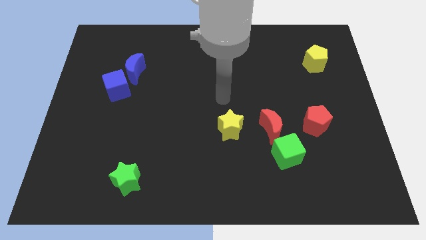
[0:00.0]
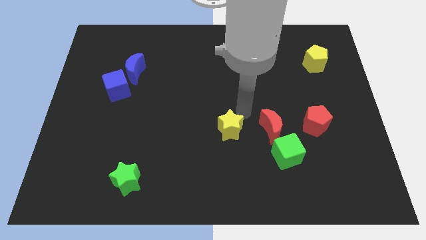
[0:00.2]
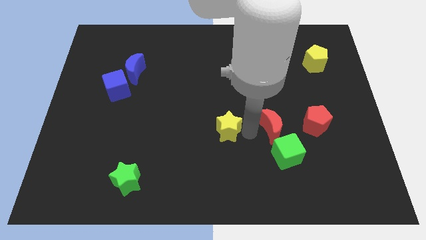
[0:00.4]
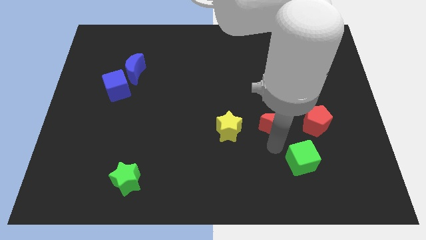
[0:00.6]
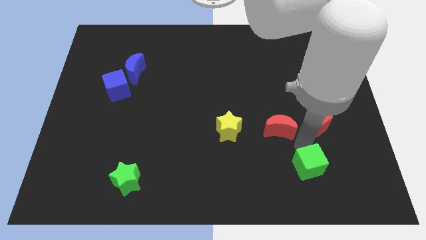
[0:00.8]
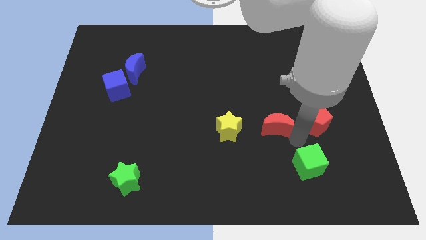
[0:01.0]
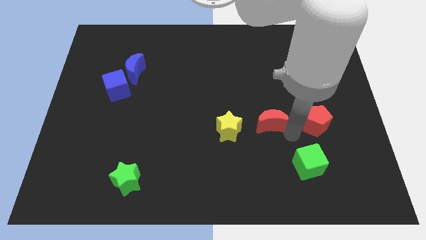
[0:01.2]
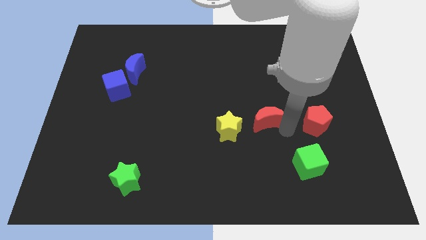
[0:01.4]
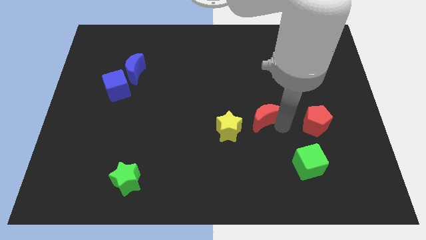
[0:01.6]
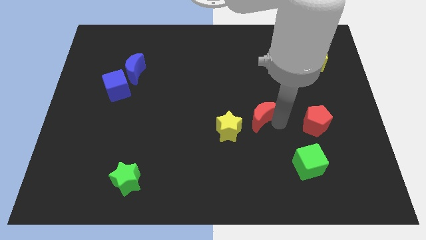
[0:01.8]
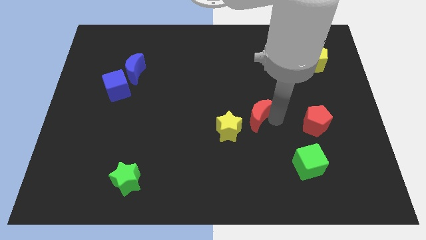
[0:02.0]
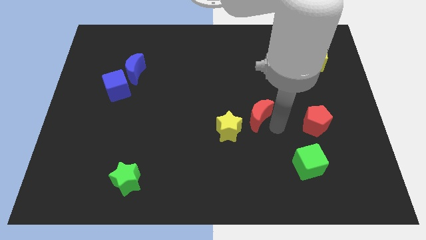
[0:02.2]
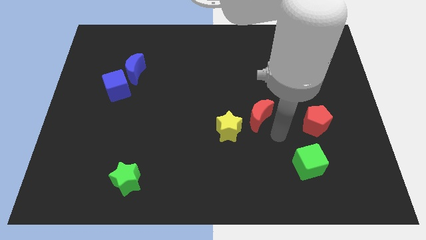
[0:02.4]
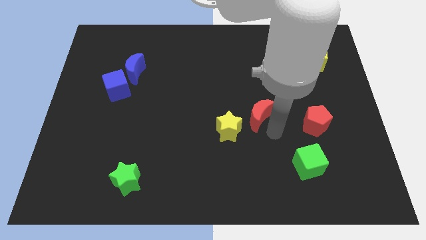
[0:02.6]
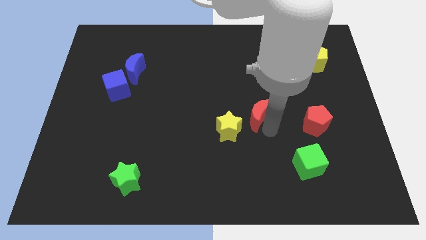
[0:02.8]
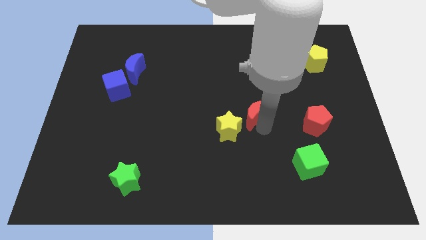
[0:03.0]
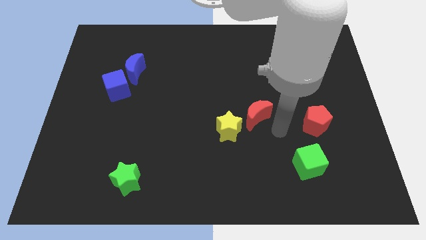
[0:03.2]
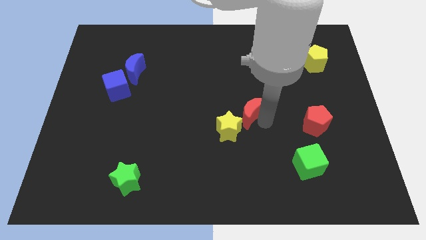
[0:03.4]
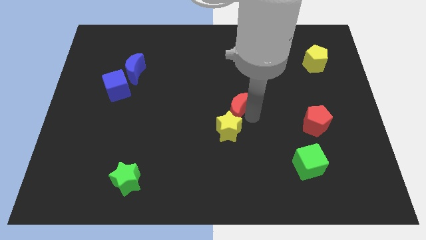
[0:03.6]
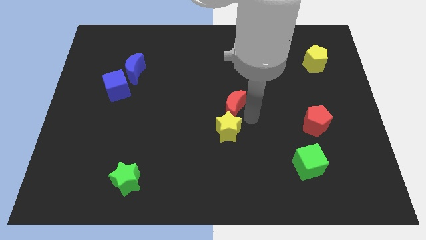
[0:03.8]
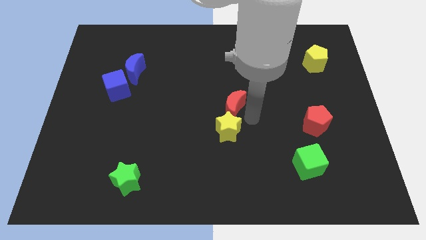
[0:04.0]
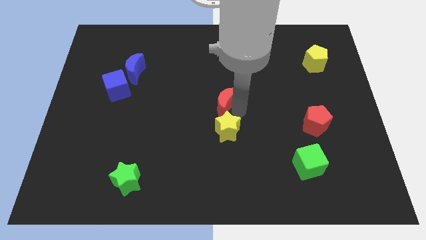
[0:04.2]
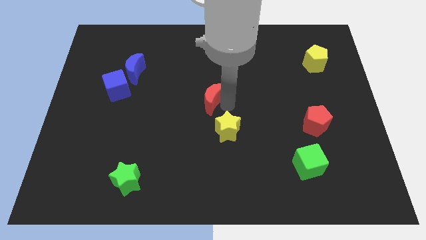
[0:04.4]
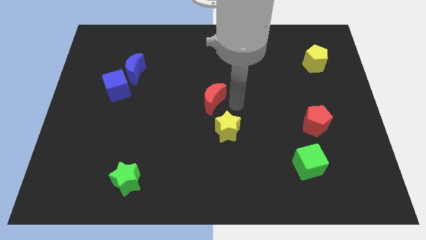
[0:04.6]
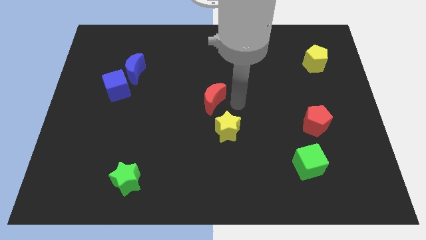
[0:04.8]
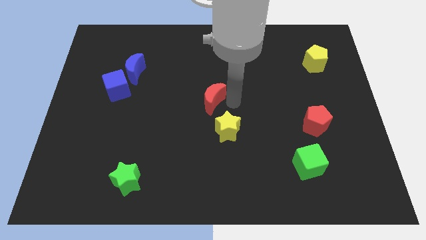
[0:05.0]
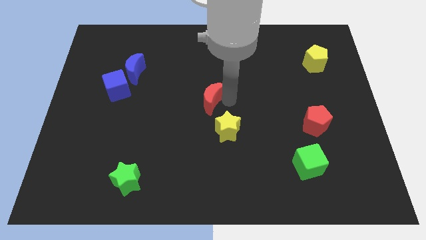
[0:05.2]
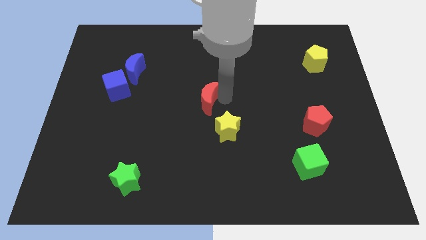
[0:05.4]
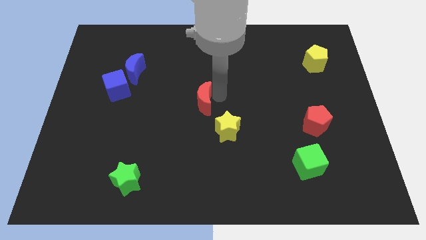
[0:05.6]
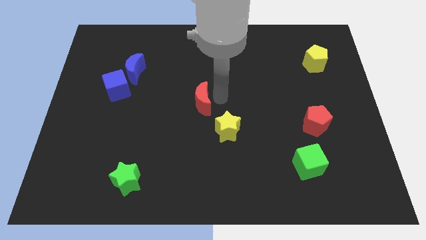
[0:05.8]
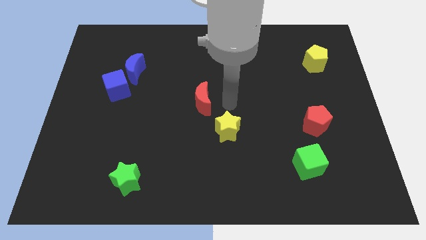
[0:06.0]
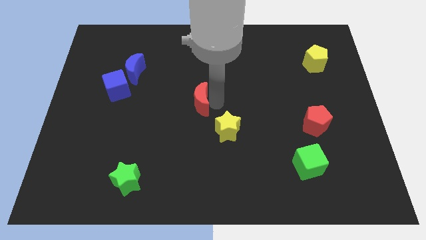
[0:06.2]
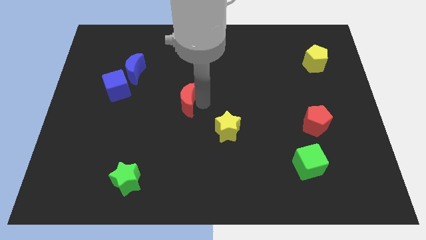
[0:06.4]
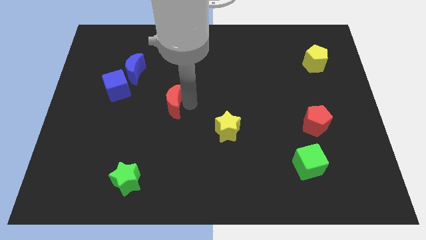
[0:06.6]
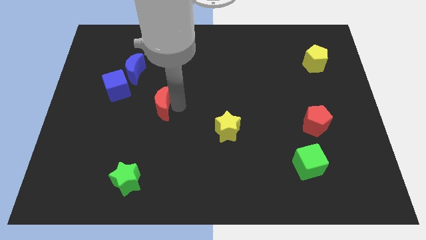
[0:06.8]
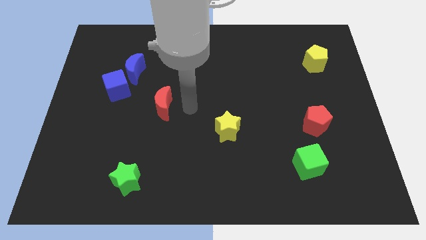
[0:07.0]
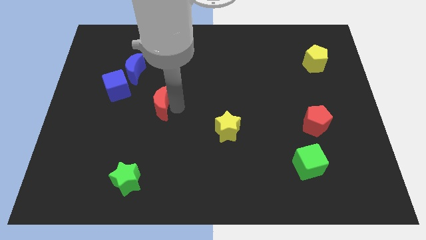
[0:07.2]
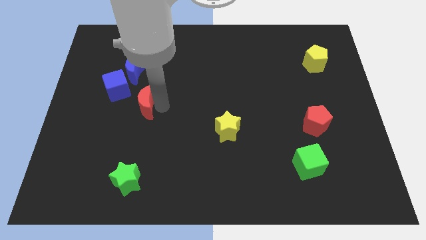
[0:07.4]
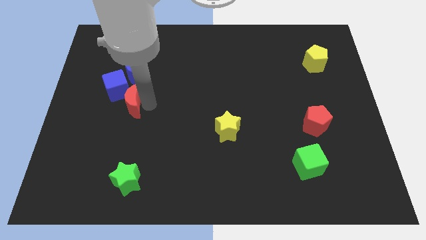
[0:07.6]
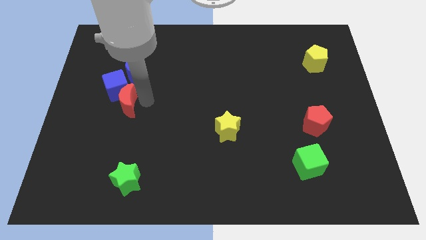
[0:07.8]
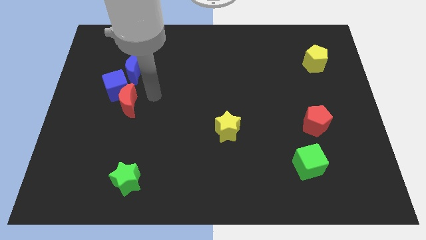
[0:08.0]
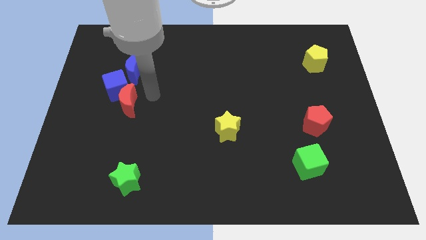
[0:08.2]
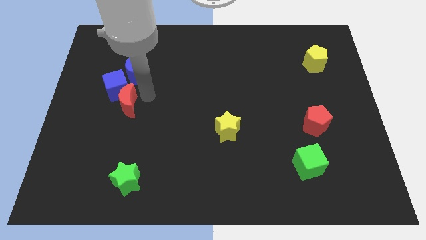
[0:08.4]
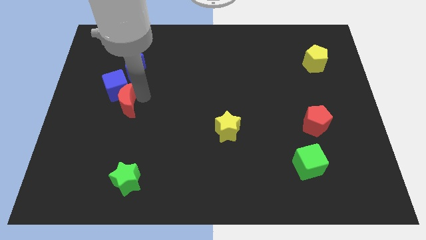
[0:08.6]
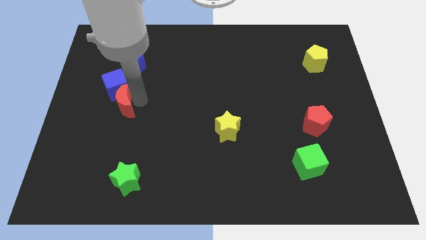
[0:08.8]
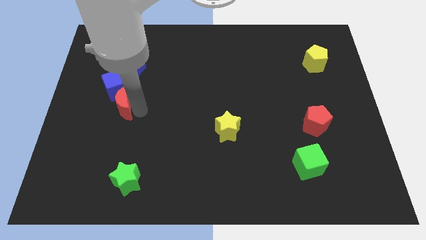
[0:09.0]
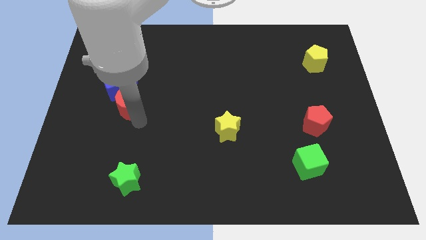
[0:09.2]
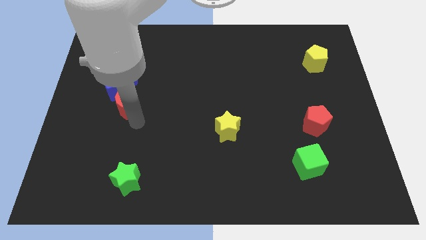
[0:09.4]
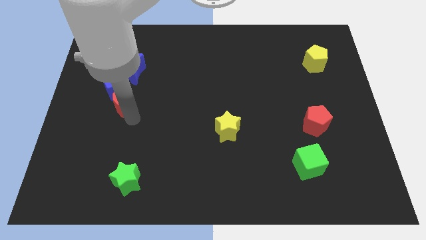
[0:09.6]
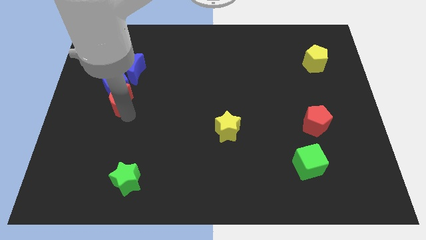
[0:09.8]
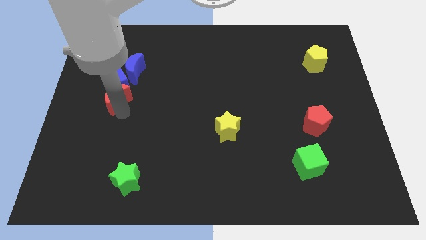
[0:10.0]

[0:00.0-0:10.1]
slide the red moon to the bottom left of the blue moon

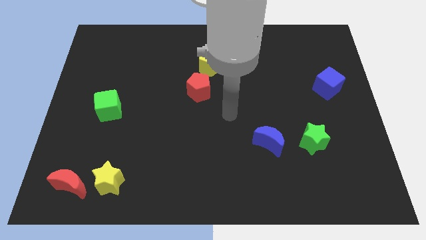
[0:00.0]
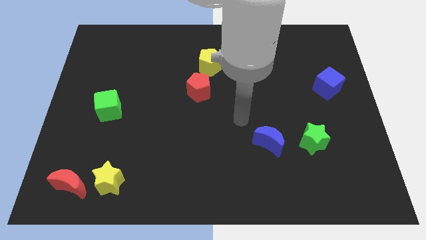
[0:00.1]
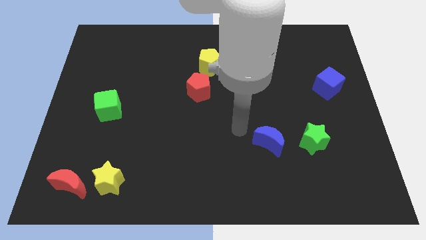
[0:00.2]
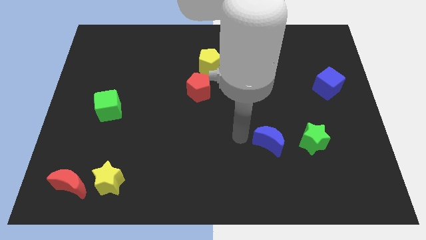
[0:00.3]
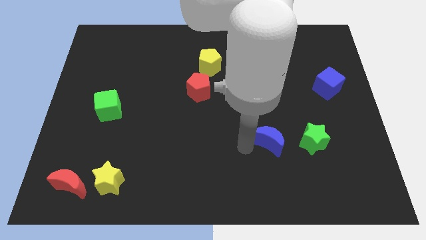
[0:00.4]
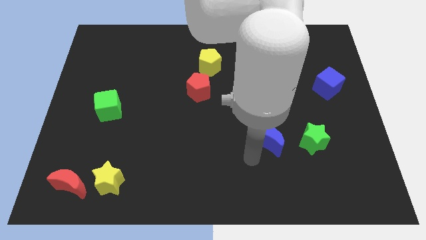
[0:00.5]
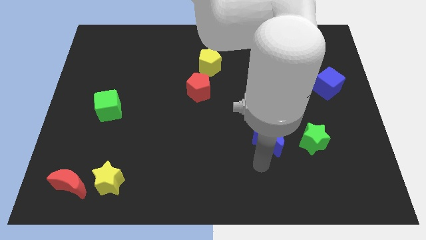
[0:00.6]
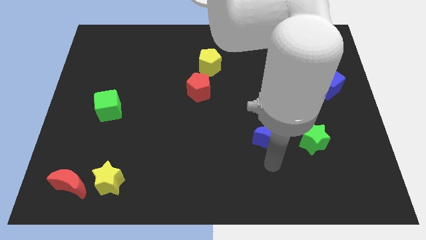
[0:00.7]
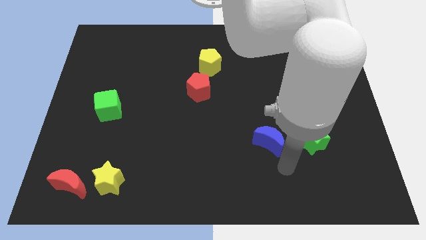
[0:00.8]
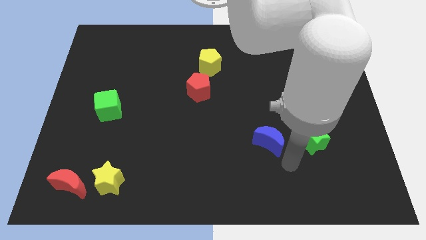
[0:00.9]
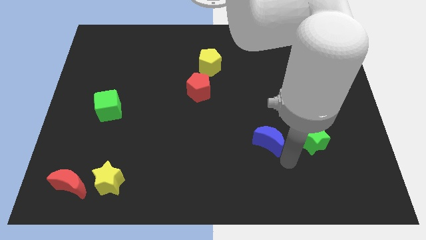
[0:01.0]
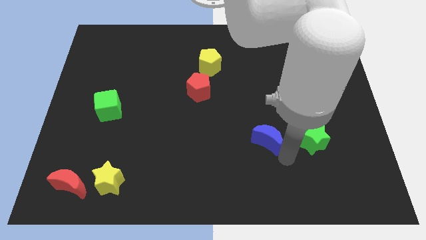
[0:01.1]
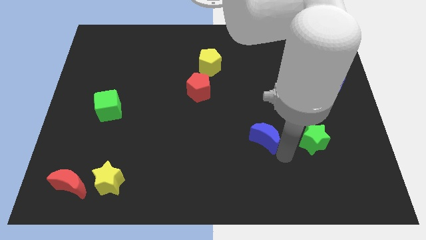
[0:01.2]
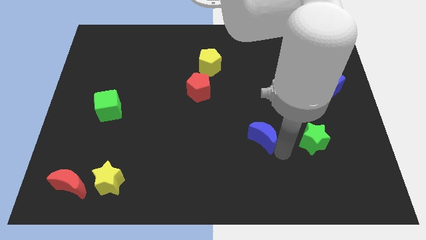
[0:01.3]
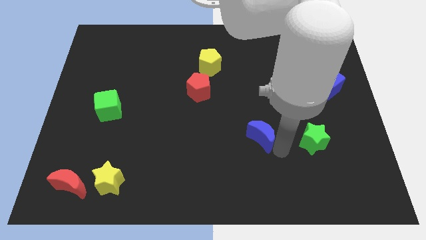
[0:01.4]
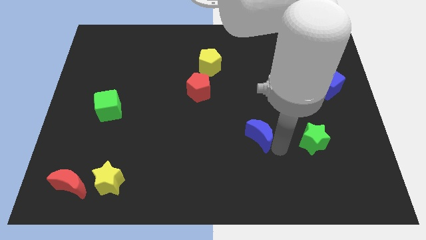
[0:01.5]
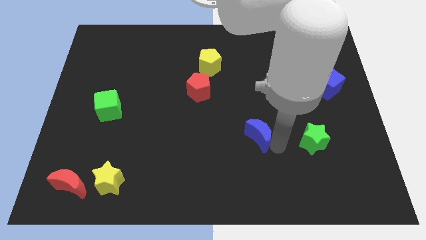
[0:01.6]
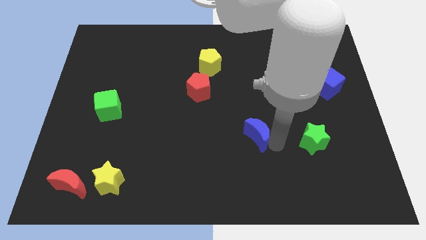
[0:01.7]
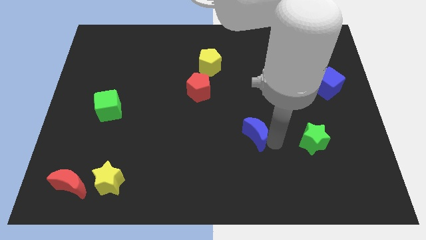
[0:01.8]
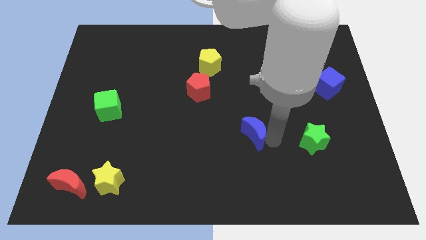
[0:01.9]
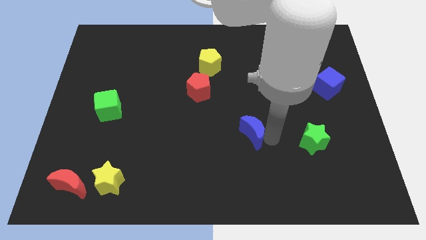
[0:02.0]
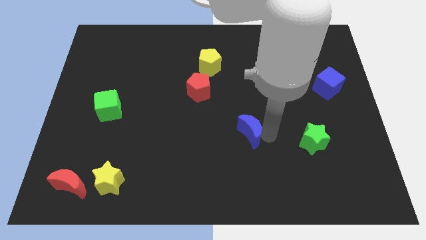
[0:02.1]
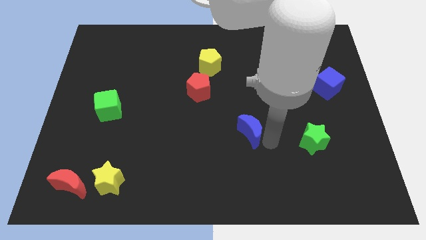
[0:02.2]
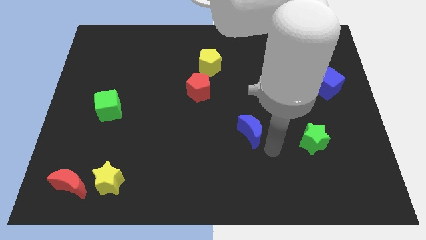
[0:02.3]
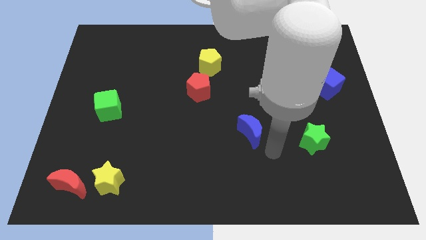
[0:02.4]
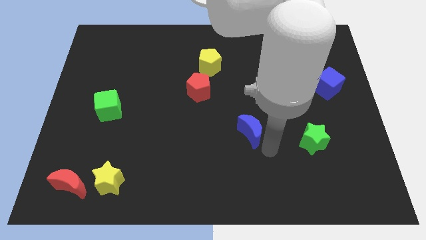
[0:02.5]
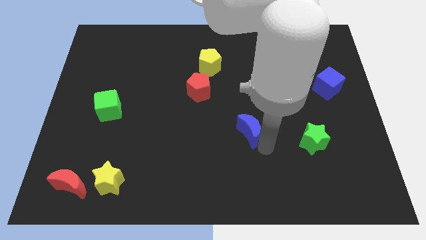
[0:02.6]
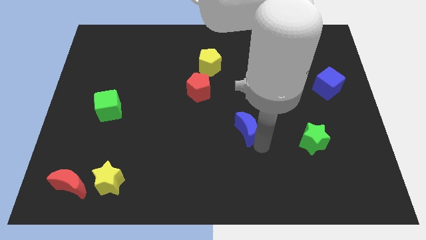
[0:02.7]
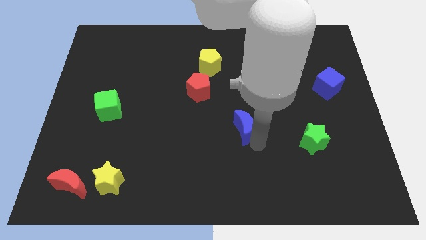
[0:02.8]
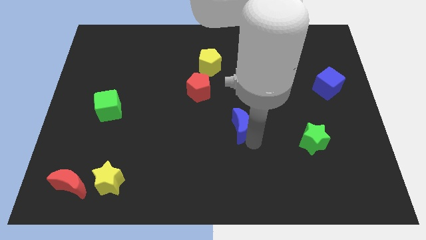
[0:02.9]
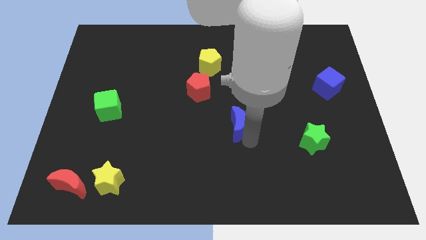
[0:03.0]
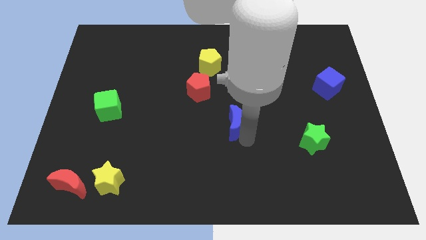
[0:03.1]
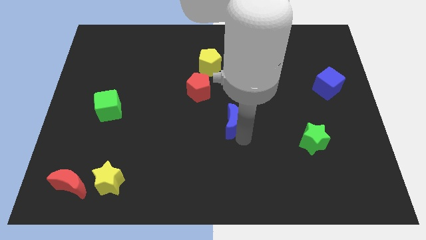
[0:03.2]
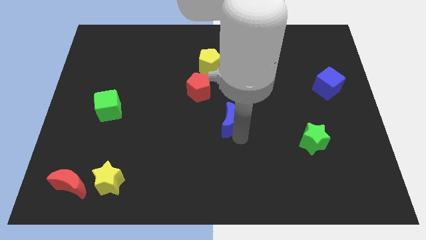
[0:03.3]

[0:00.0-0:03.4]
put the blue moon diagonally down and to the right of the red pentagon
